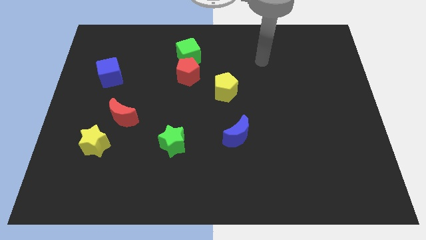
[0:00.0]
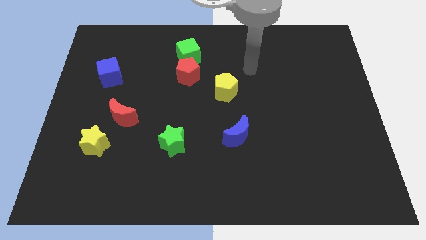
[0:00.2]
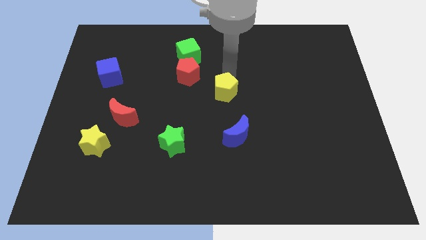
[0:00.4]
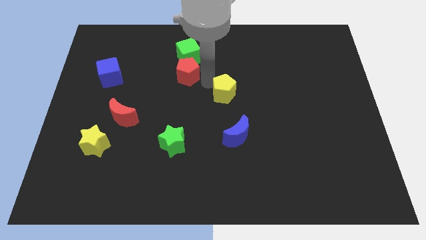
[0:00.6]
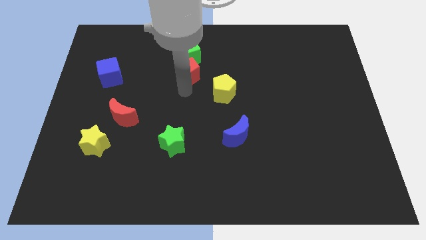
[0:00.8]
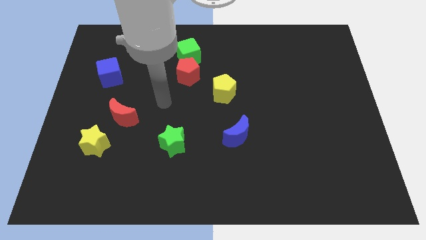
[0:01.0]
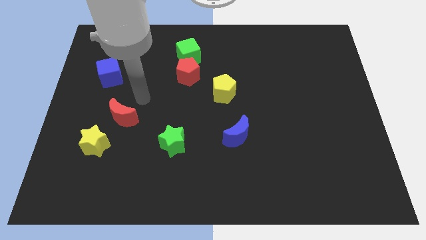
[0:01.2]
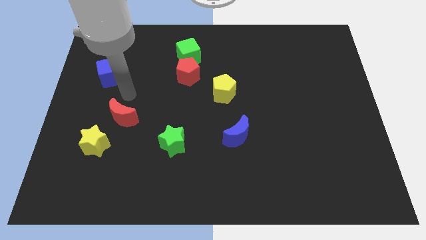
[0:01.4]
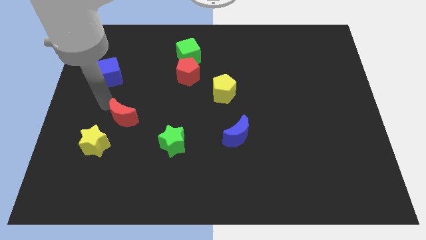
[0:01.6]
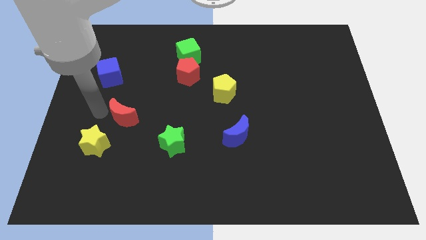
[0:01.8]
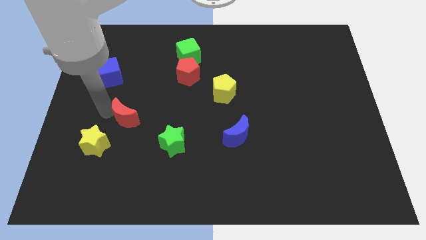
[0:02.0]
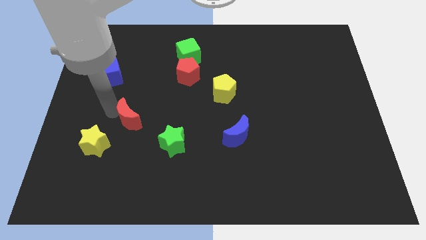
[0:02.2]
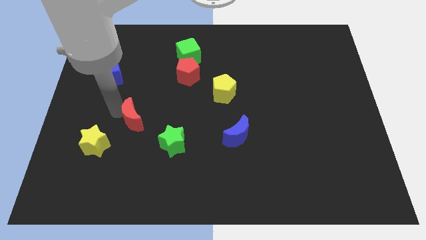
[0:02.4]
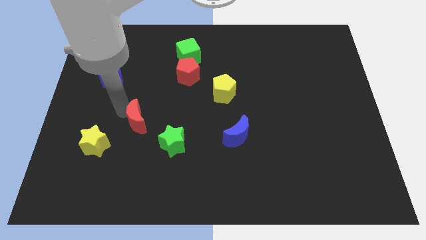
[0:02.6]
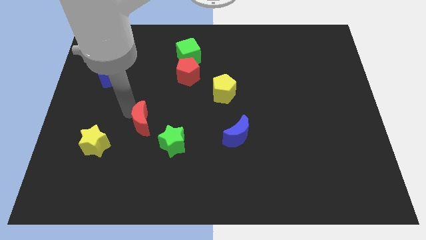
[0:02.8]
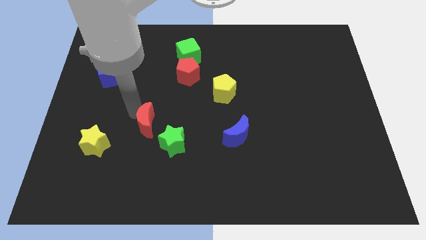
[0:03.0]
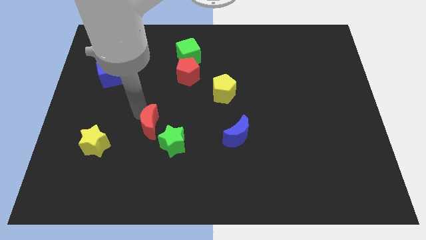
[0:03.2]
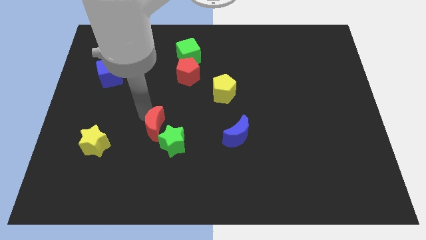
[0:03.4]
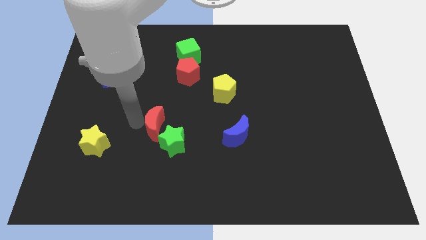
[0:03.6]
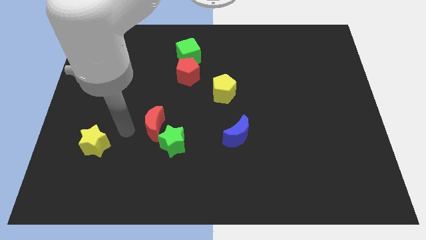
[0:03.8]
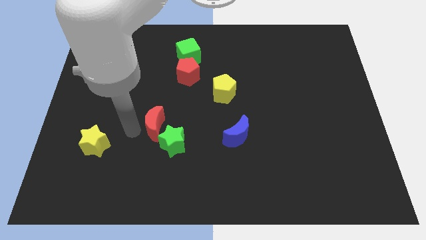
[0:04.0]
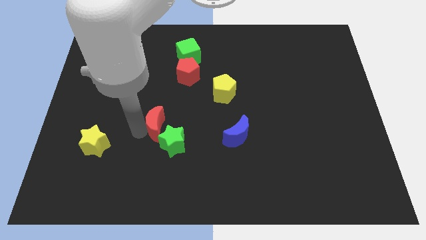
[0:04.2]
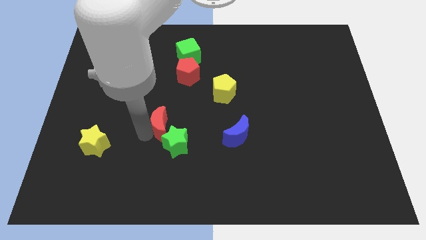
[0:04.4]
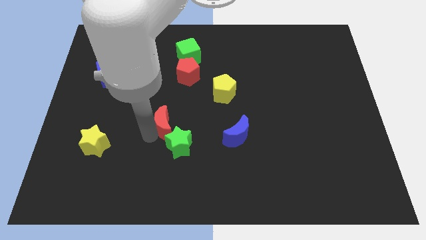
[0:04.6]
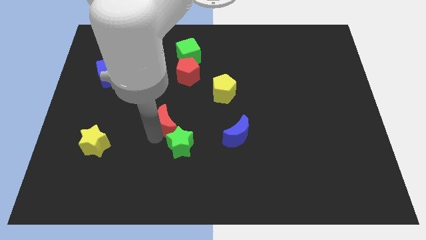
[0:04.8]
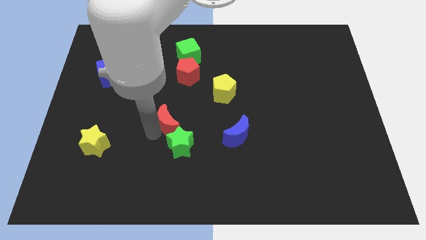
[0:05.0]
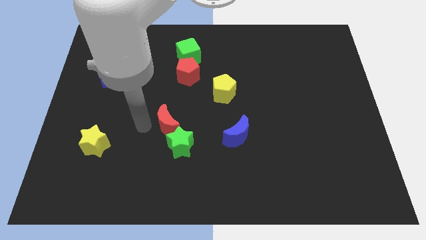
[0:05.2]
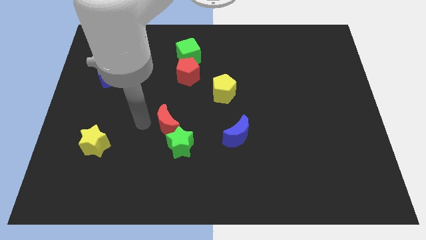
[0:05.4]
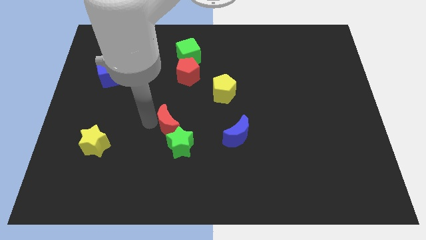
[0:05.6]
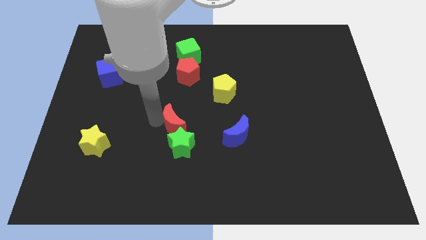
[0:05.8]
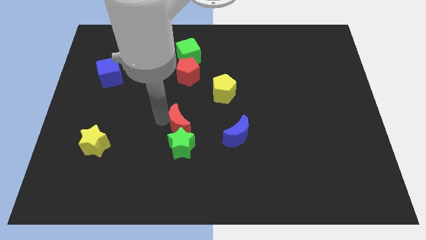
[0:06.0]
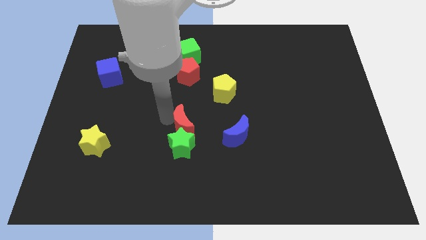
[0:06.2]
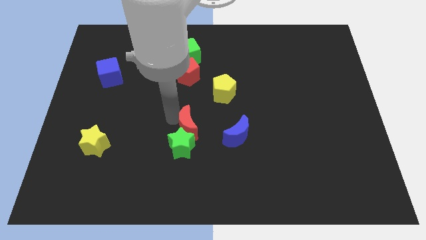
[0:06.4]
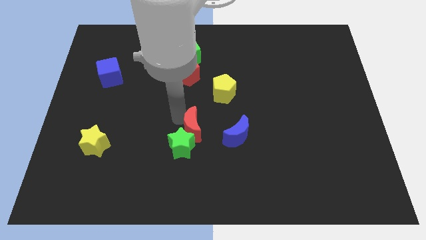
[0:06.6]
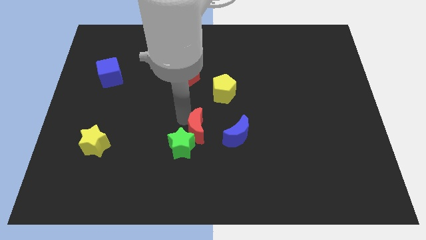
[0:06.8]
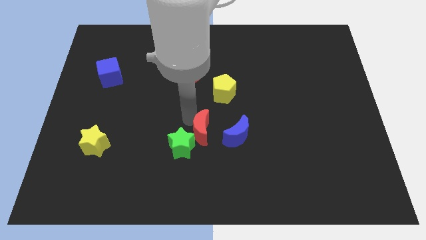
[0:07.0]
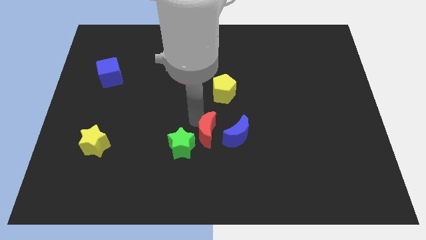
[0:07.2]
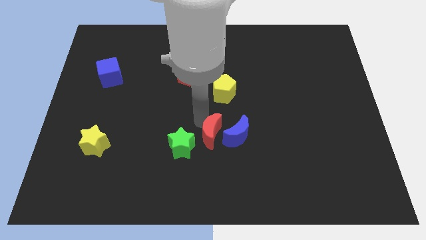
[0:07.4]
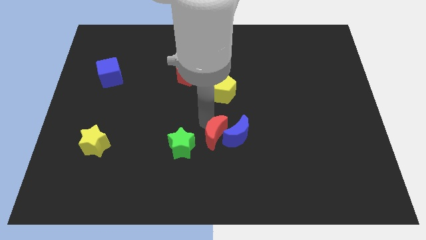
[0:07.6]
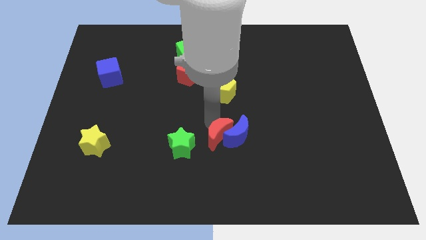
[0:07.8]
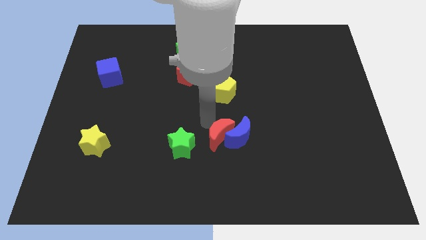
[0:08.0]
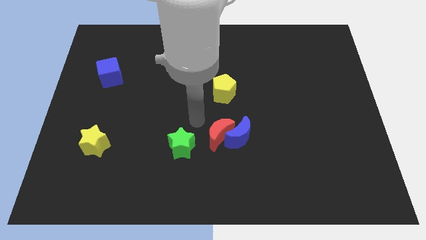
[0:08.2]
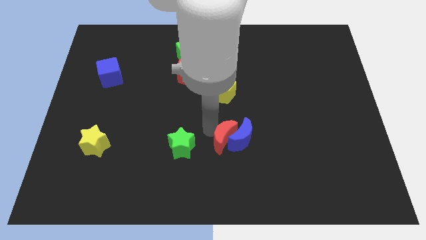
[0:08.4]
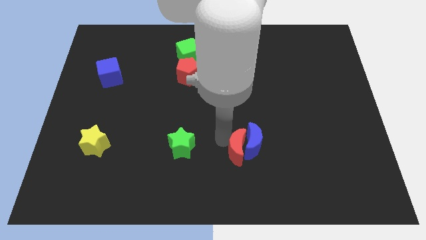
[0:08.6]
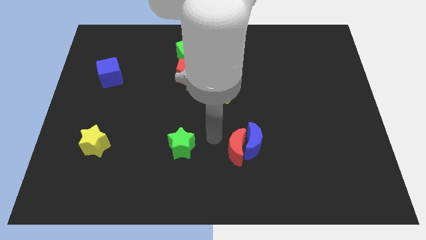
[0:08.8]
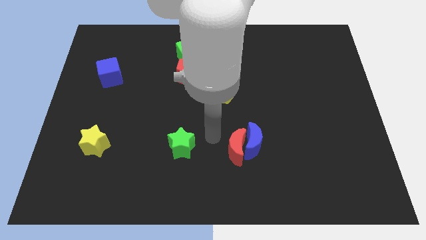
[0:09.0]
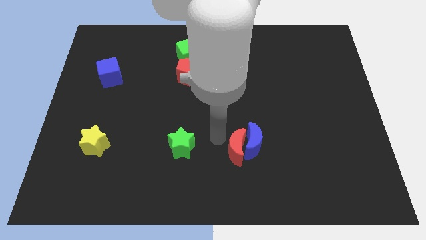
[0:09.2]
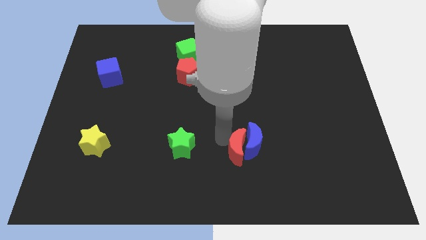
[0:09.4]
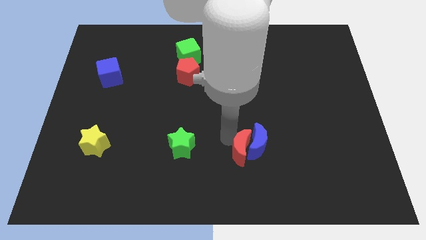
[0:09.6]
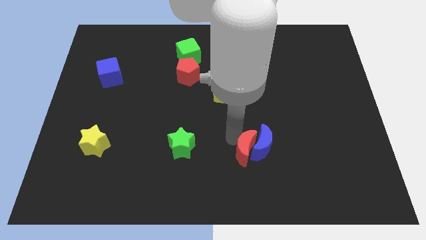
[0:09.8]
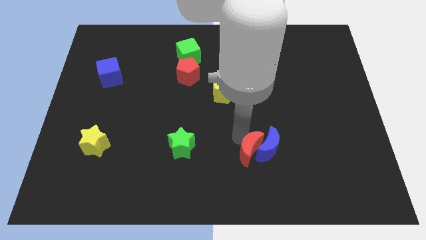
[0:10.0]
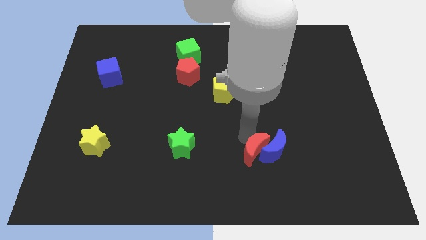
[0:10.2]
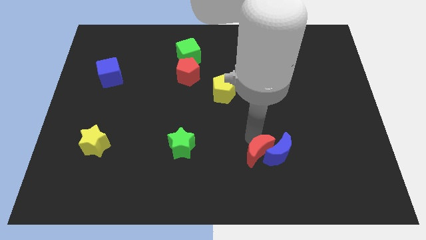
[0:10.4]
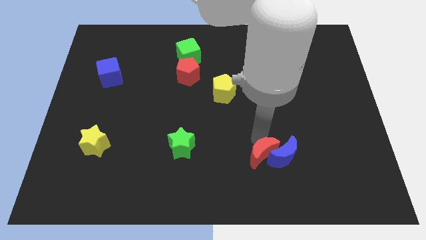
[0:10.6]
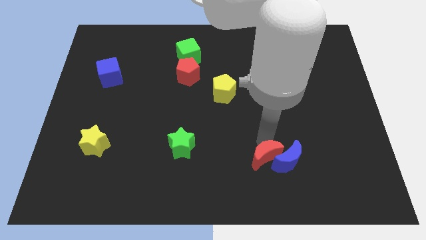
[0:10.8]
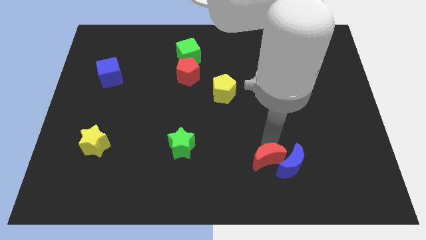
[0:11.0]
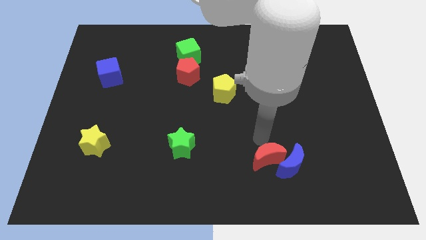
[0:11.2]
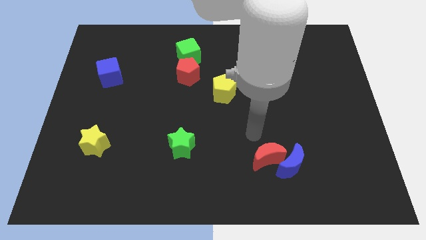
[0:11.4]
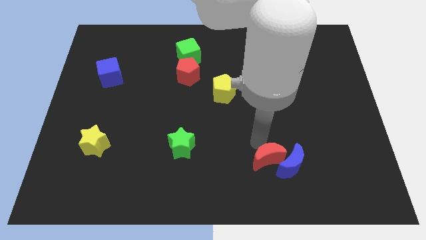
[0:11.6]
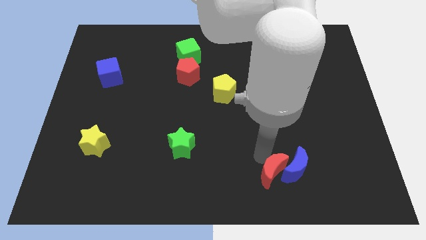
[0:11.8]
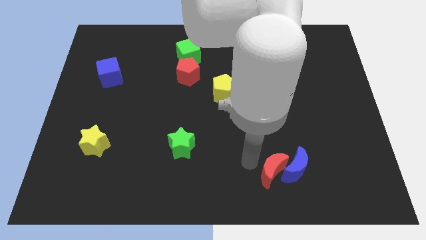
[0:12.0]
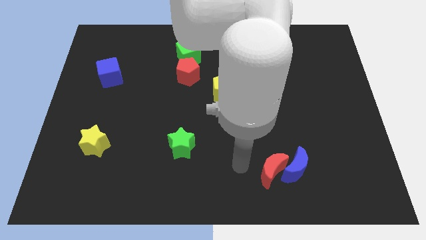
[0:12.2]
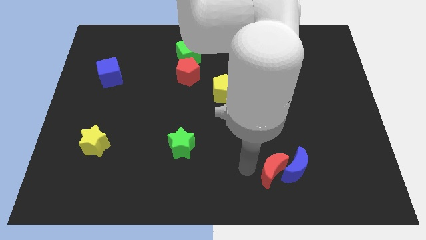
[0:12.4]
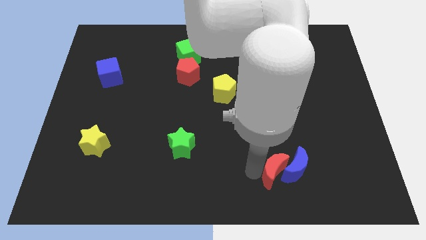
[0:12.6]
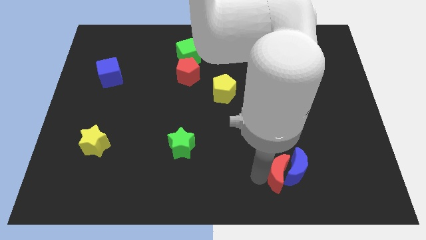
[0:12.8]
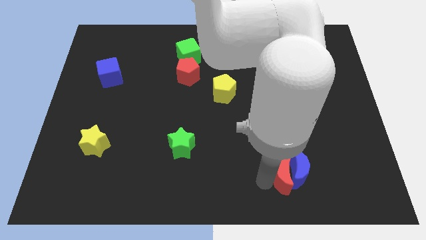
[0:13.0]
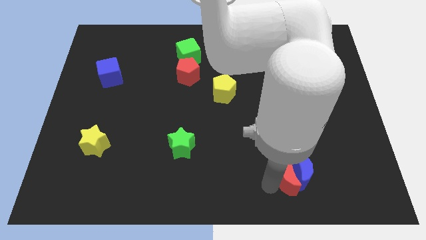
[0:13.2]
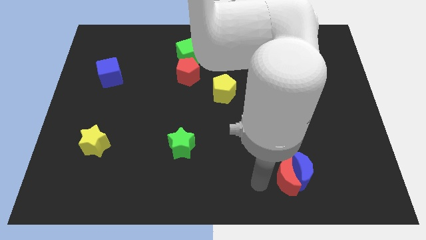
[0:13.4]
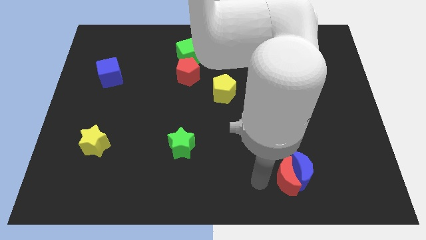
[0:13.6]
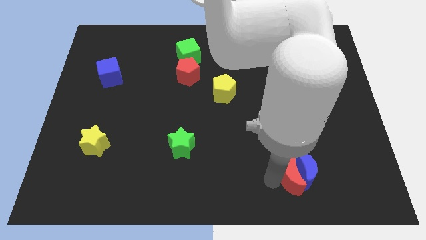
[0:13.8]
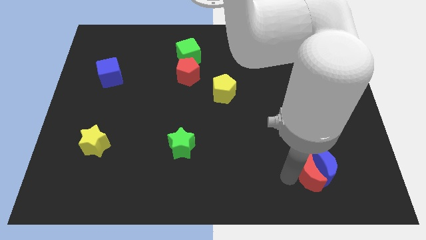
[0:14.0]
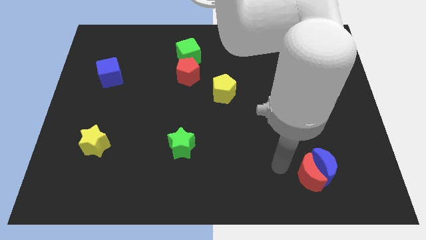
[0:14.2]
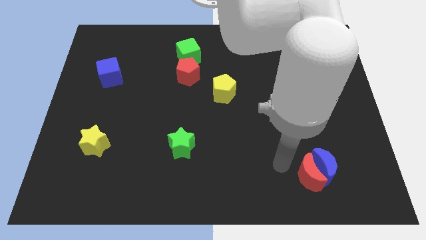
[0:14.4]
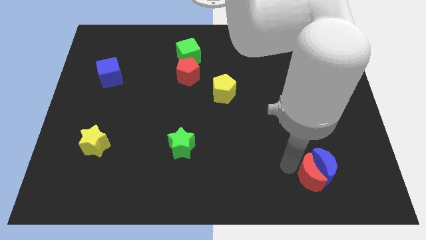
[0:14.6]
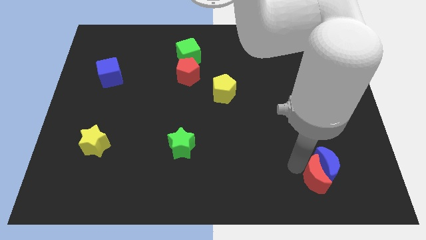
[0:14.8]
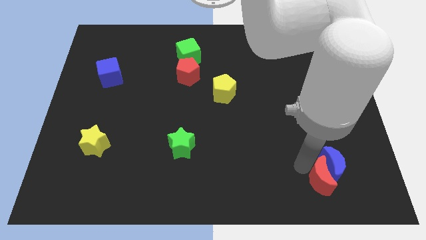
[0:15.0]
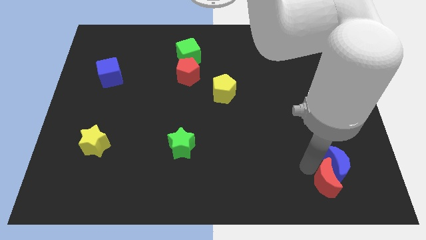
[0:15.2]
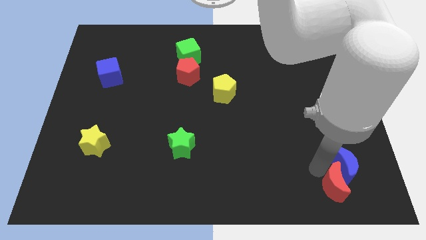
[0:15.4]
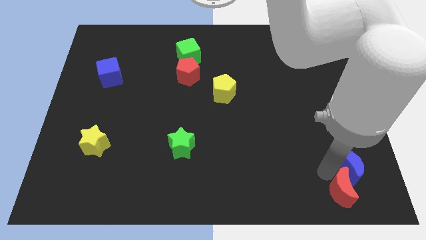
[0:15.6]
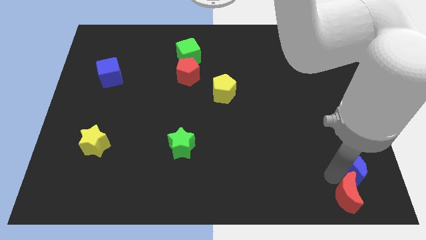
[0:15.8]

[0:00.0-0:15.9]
put the red moon to the bottom right of the board
